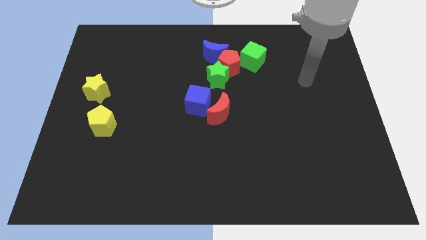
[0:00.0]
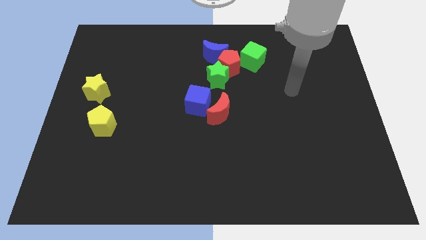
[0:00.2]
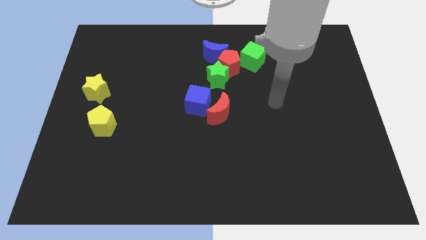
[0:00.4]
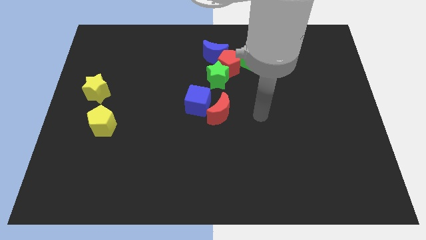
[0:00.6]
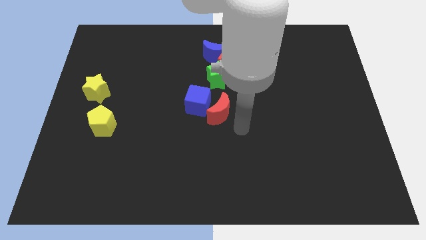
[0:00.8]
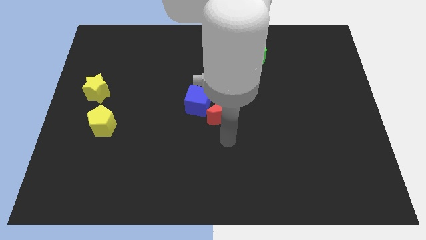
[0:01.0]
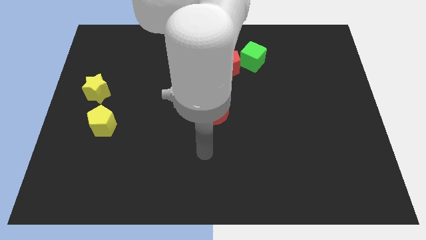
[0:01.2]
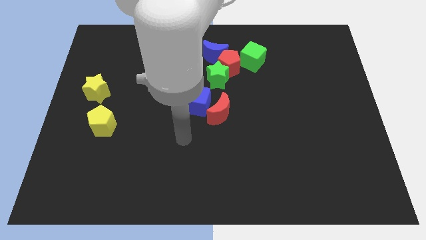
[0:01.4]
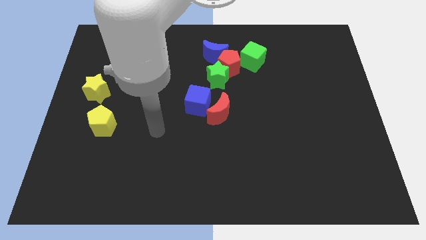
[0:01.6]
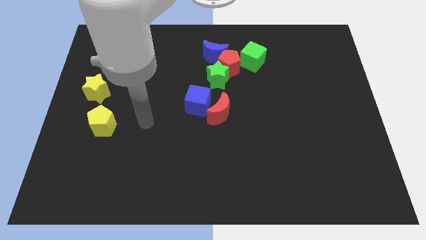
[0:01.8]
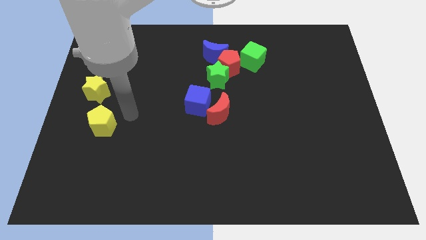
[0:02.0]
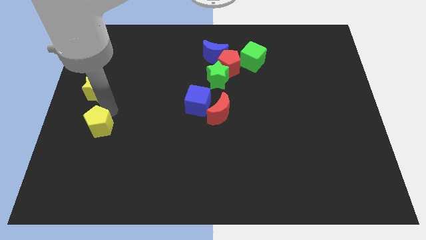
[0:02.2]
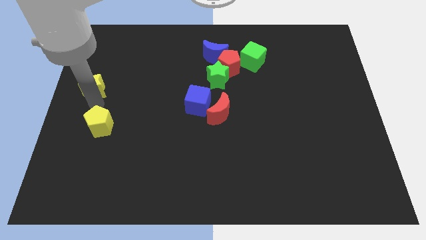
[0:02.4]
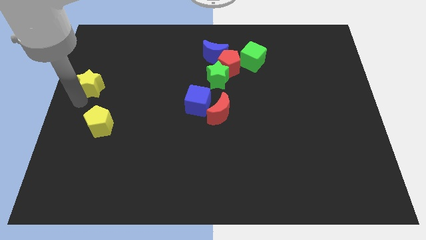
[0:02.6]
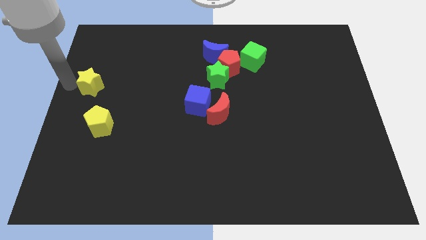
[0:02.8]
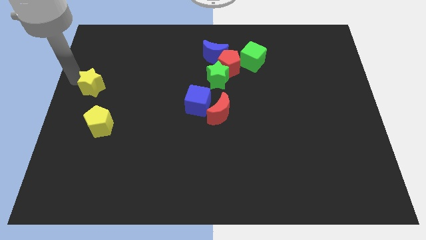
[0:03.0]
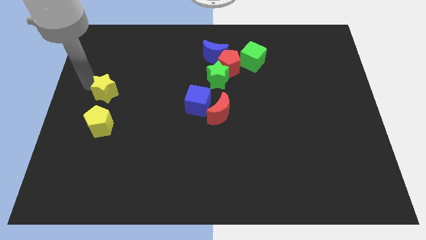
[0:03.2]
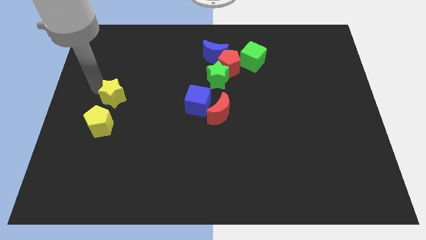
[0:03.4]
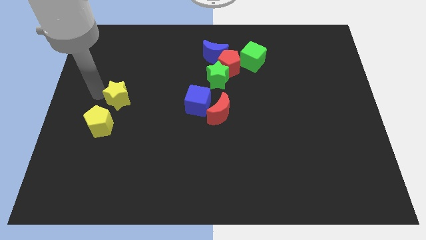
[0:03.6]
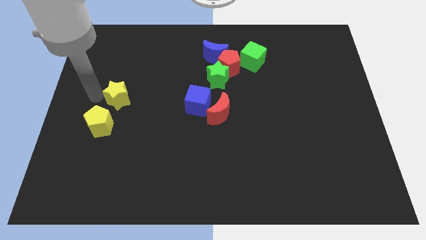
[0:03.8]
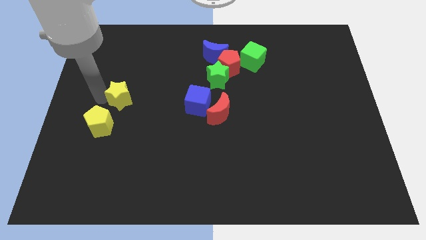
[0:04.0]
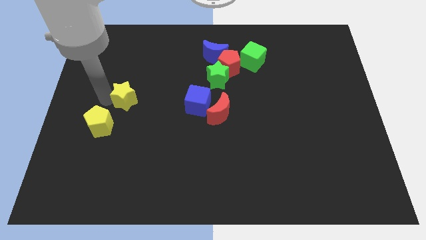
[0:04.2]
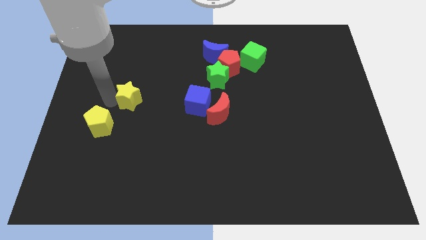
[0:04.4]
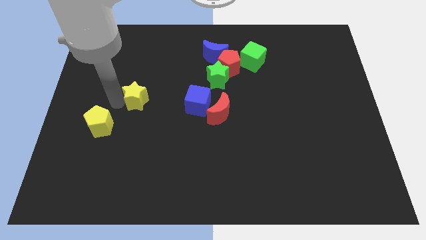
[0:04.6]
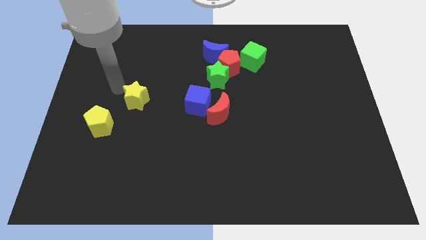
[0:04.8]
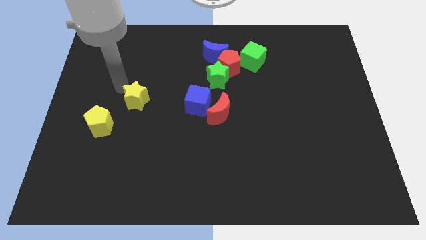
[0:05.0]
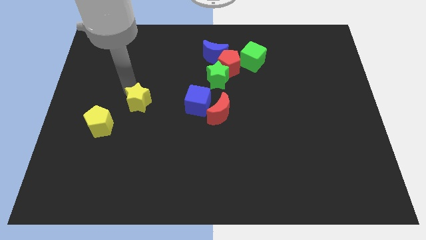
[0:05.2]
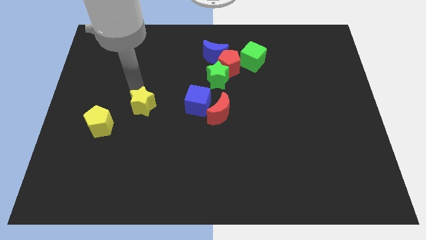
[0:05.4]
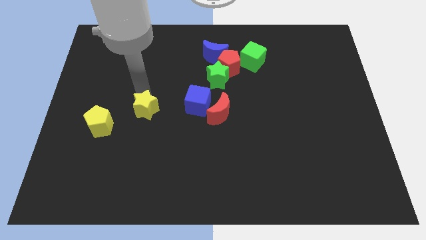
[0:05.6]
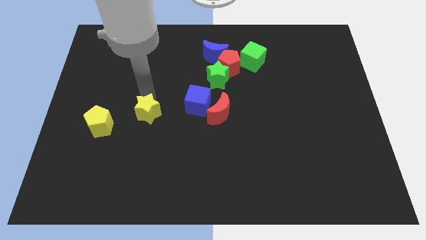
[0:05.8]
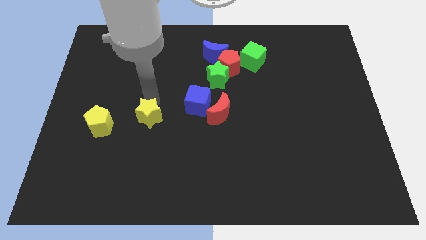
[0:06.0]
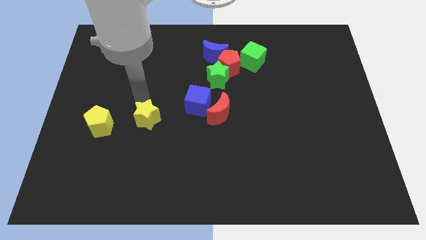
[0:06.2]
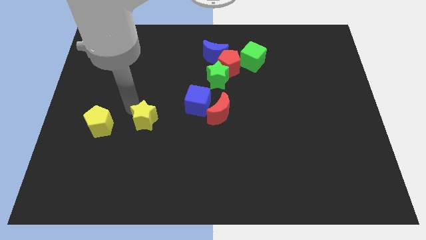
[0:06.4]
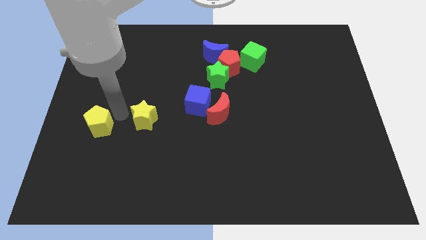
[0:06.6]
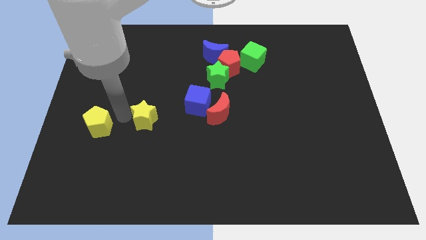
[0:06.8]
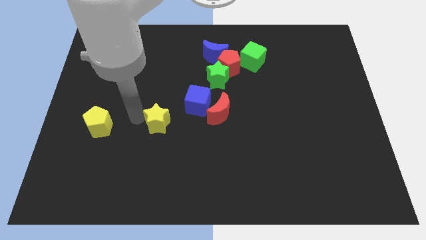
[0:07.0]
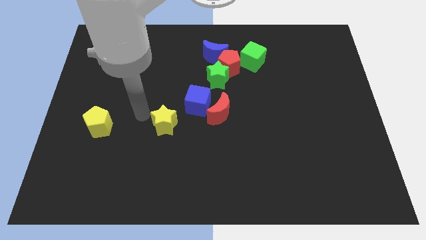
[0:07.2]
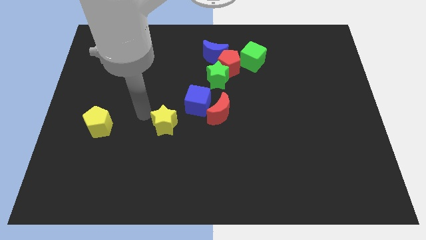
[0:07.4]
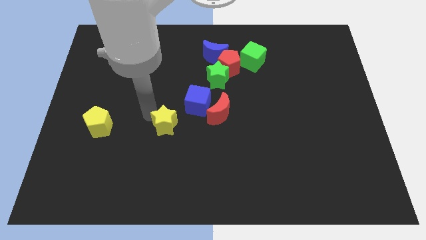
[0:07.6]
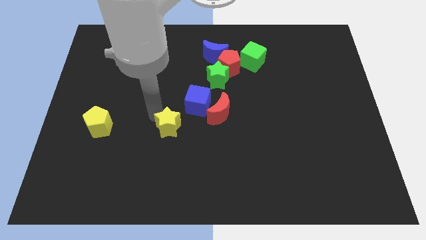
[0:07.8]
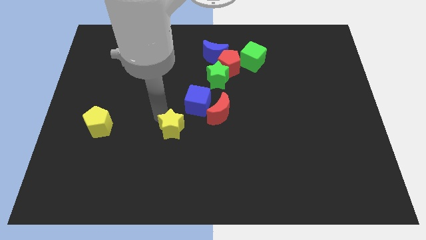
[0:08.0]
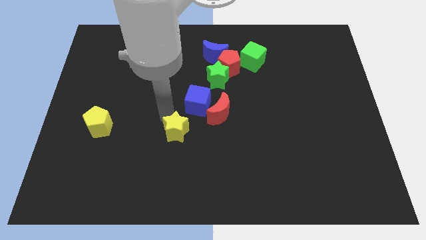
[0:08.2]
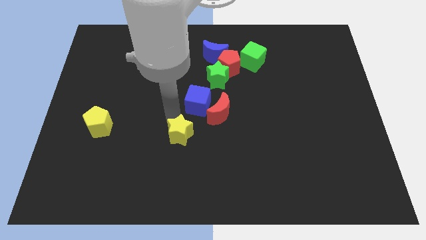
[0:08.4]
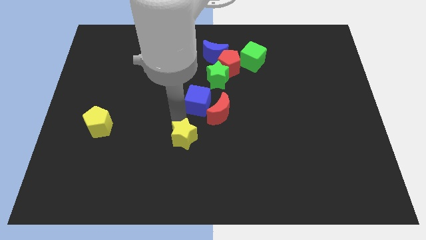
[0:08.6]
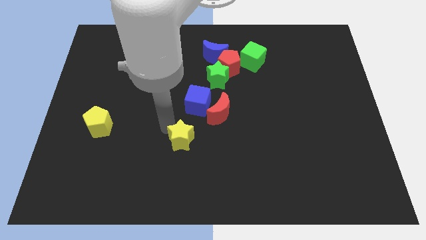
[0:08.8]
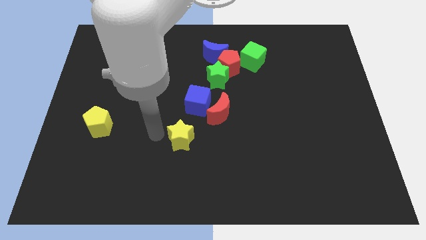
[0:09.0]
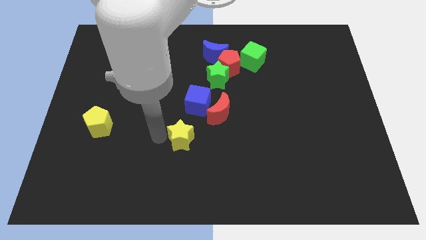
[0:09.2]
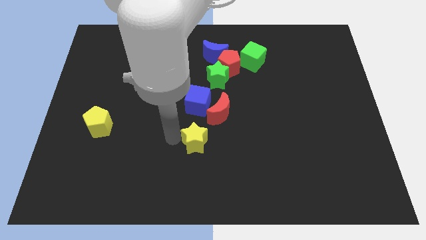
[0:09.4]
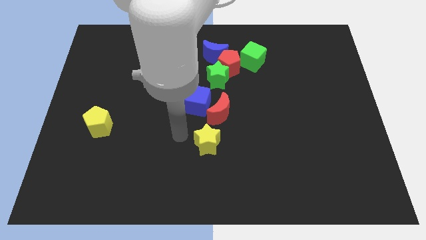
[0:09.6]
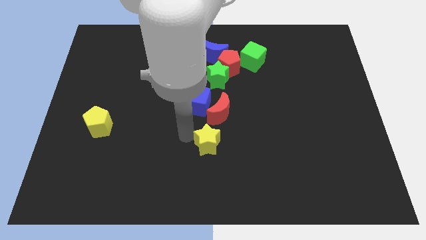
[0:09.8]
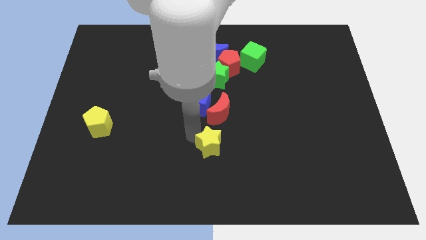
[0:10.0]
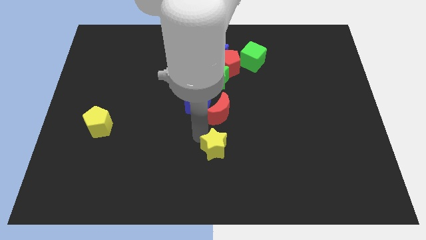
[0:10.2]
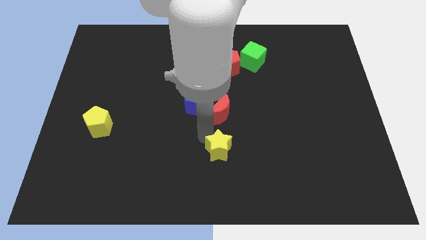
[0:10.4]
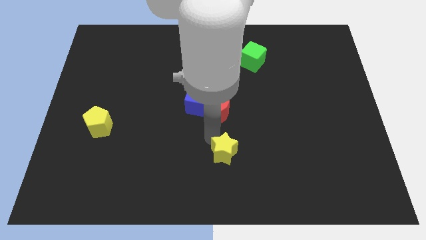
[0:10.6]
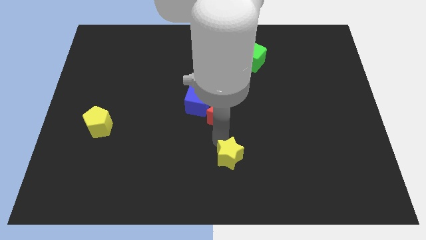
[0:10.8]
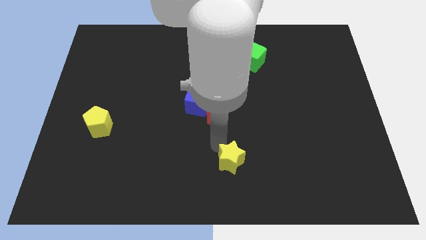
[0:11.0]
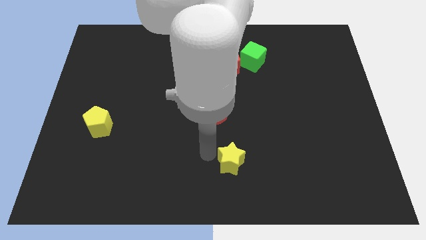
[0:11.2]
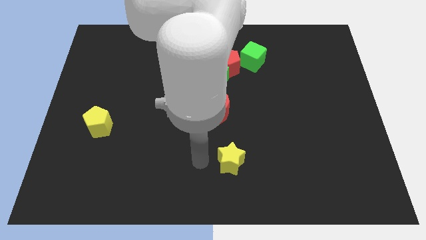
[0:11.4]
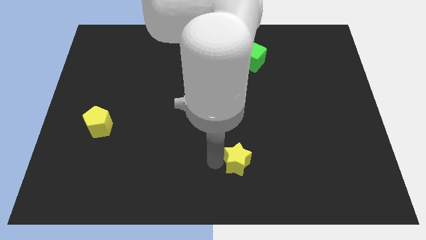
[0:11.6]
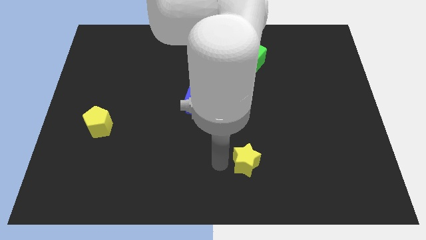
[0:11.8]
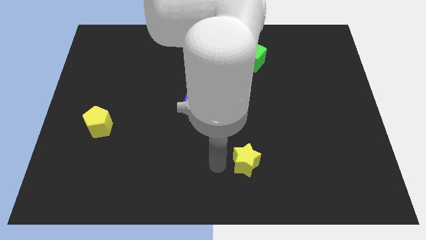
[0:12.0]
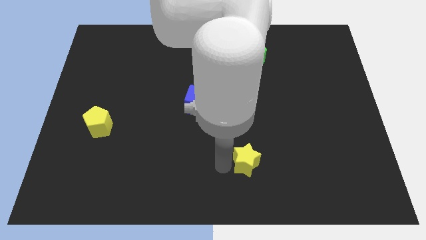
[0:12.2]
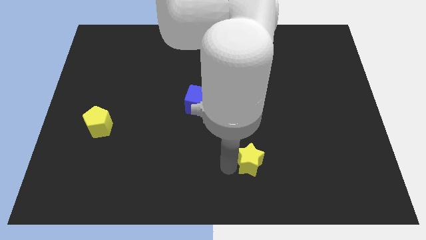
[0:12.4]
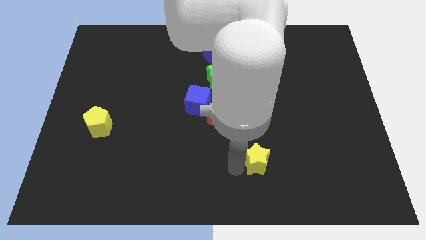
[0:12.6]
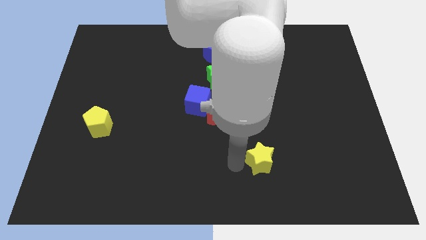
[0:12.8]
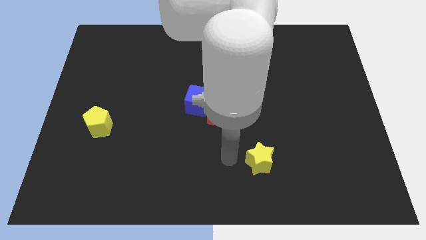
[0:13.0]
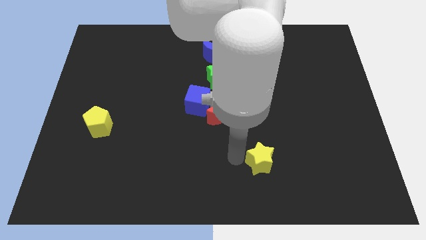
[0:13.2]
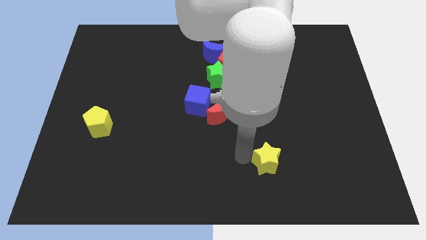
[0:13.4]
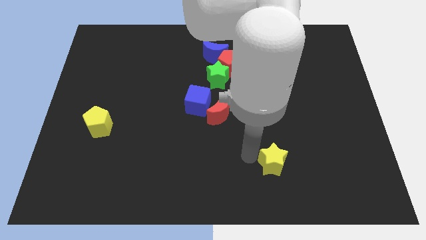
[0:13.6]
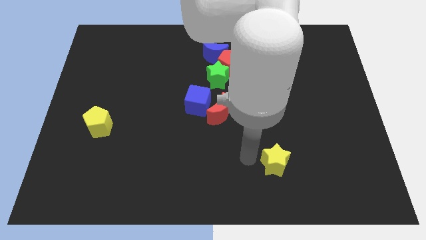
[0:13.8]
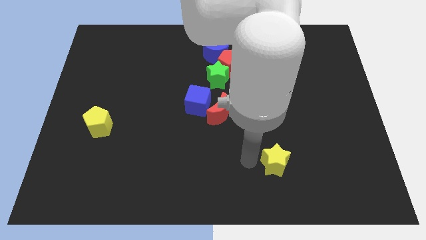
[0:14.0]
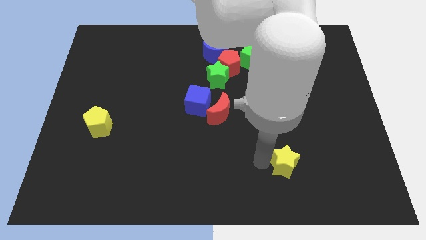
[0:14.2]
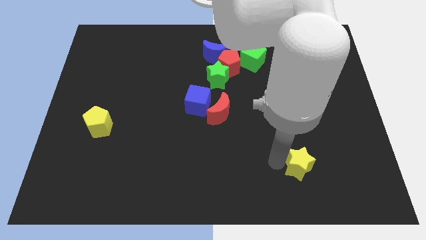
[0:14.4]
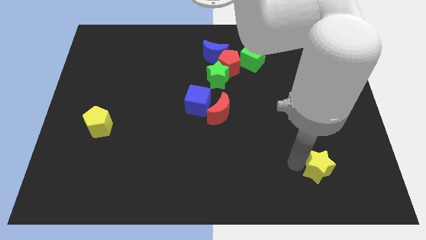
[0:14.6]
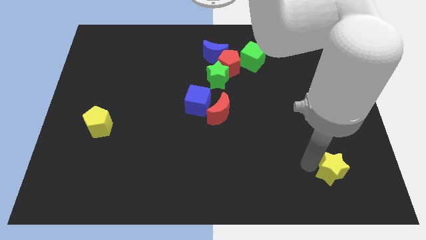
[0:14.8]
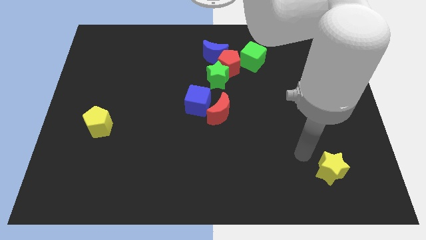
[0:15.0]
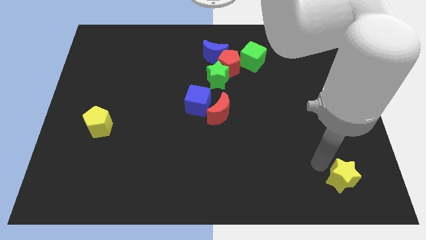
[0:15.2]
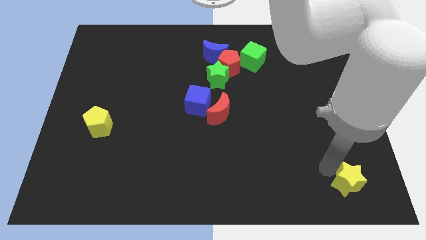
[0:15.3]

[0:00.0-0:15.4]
push the yellow star to the lower right corner
